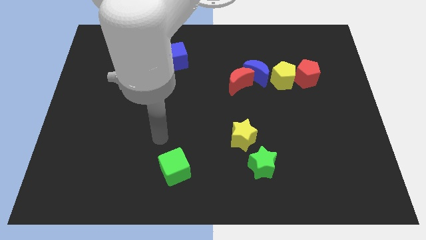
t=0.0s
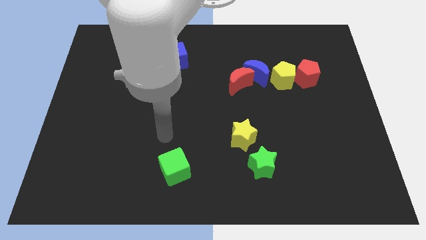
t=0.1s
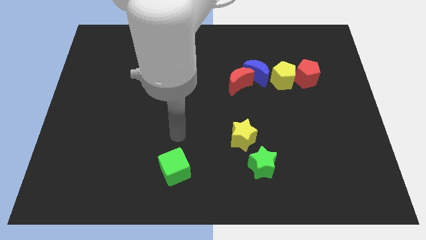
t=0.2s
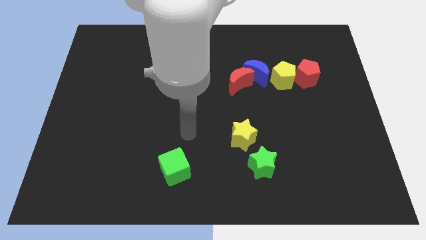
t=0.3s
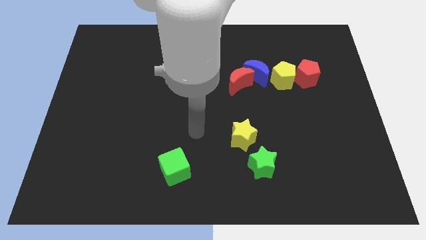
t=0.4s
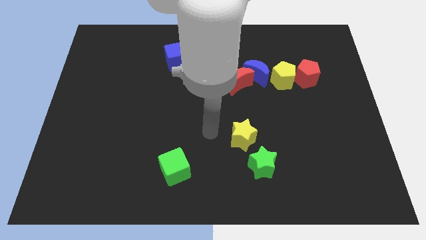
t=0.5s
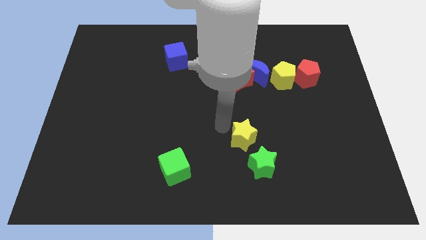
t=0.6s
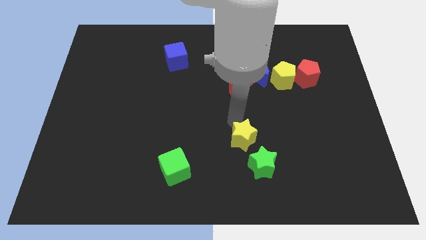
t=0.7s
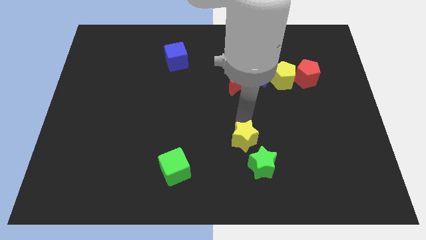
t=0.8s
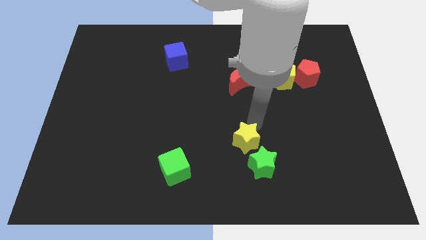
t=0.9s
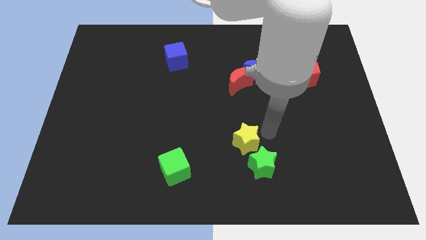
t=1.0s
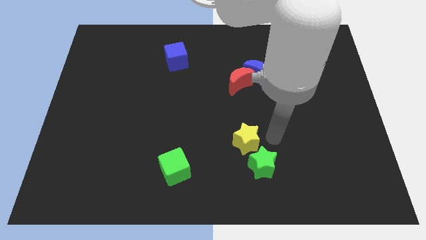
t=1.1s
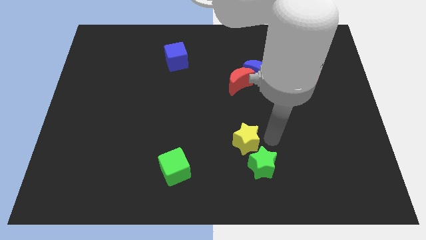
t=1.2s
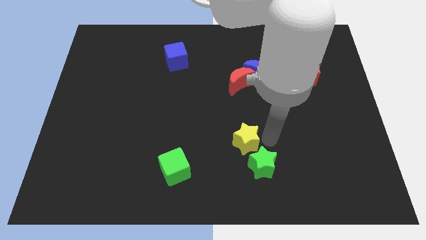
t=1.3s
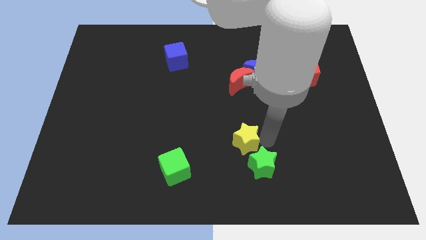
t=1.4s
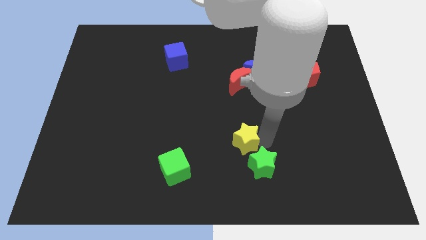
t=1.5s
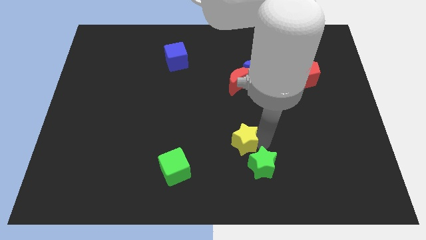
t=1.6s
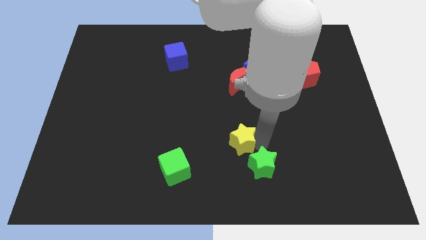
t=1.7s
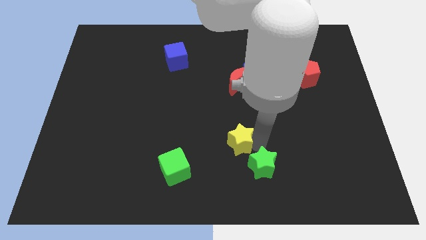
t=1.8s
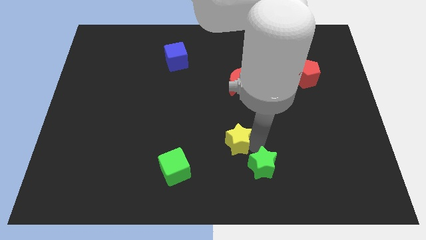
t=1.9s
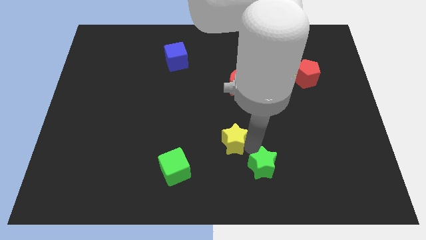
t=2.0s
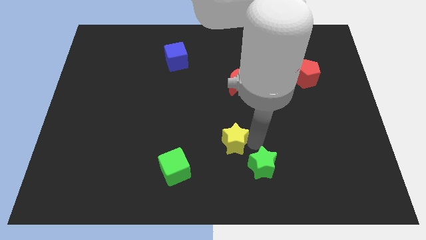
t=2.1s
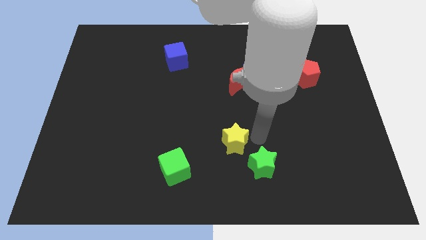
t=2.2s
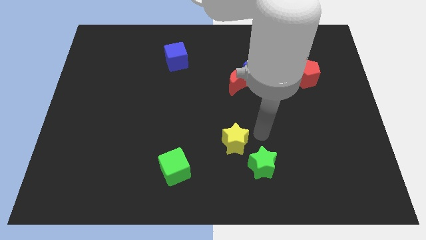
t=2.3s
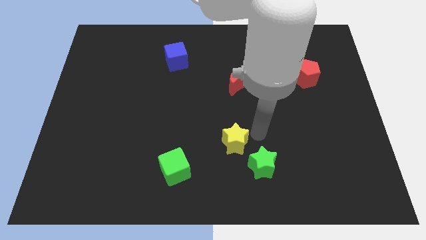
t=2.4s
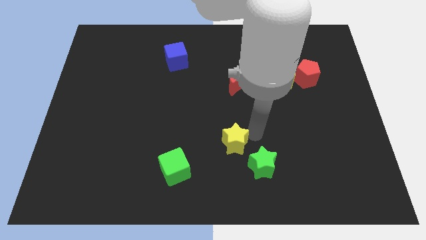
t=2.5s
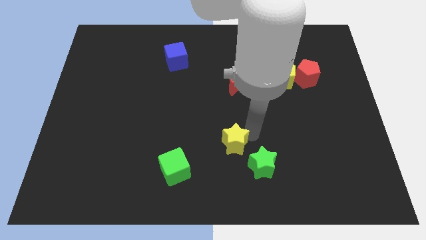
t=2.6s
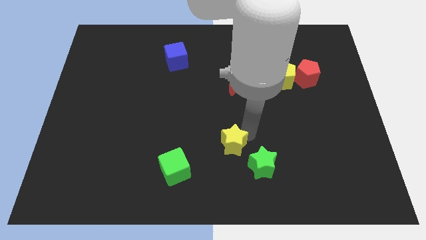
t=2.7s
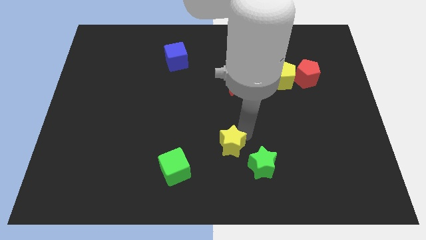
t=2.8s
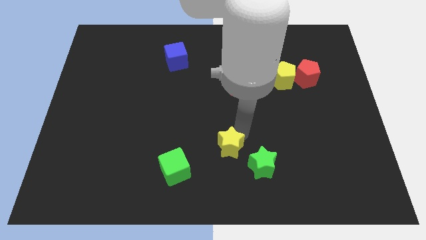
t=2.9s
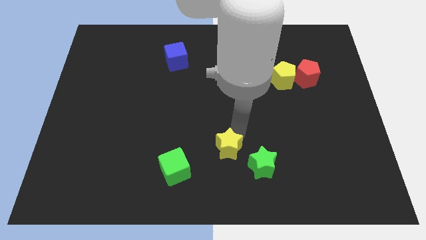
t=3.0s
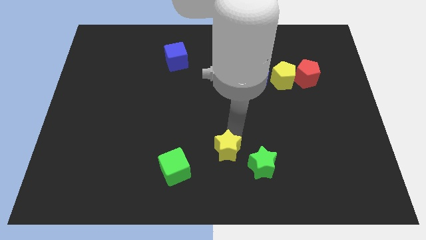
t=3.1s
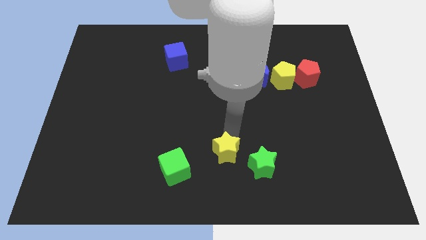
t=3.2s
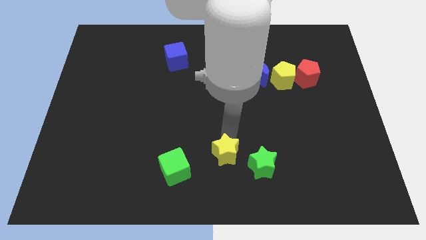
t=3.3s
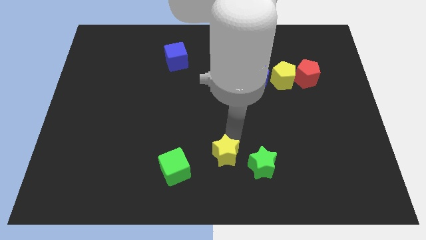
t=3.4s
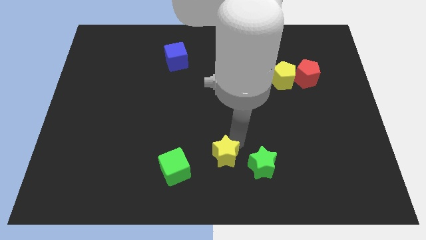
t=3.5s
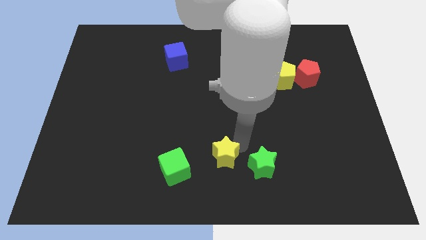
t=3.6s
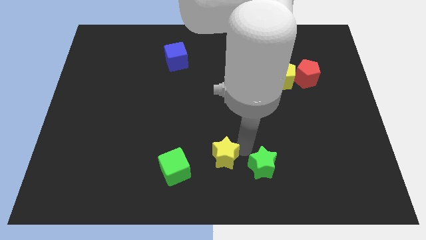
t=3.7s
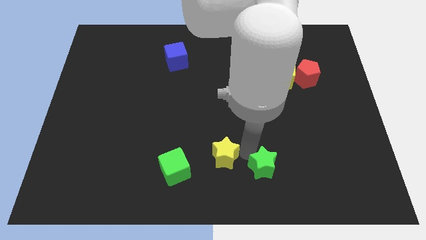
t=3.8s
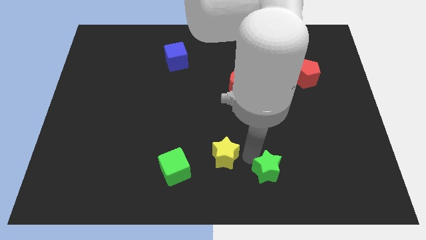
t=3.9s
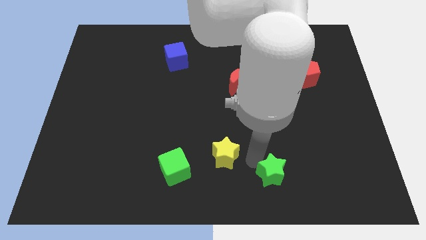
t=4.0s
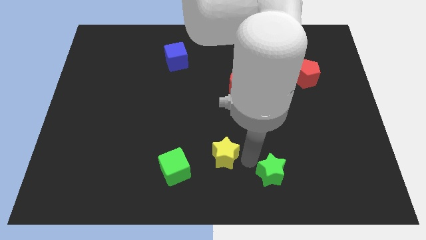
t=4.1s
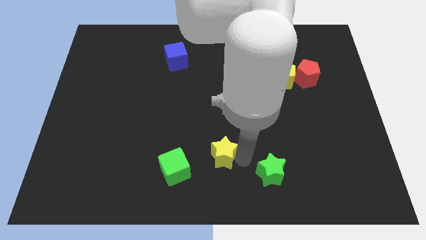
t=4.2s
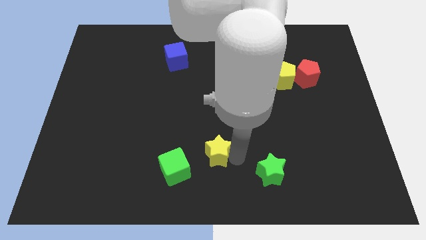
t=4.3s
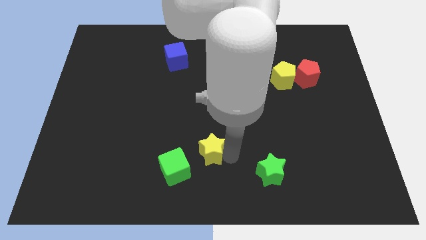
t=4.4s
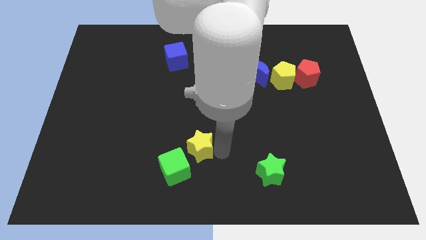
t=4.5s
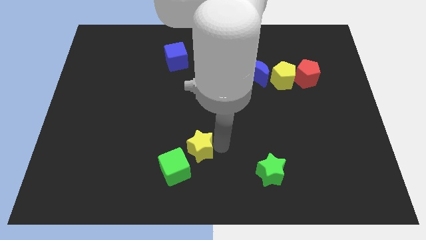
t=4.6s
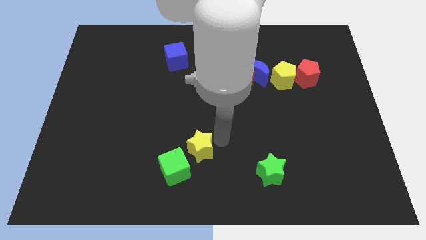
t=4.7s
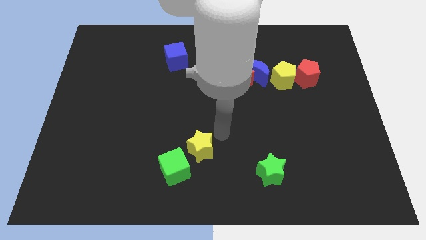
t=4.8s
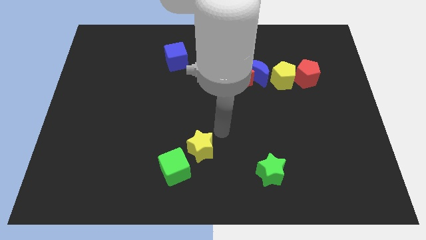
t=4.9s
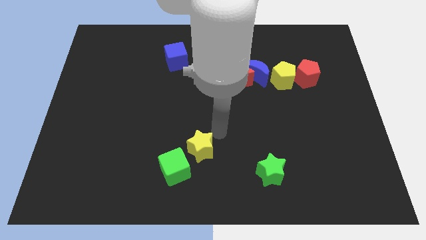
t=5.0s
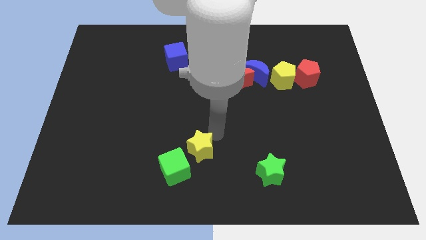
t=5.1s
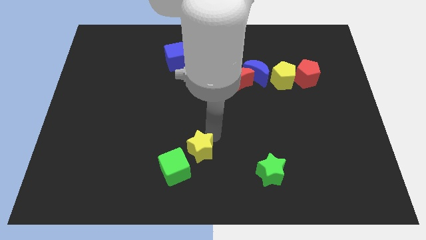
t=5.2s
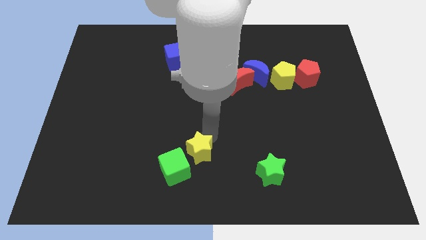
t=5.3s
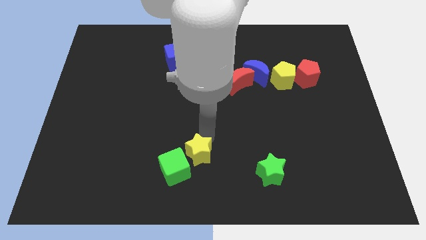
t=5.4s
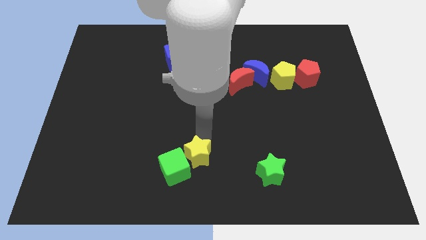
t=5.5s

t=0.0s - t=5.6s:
put the yellow star to the green cube

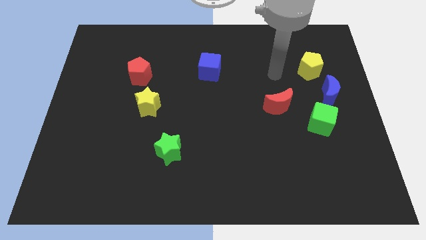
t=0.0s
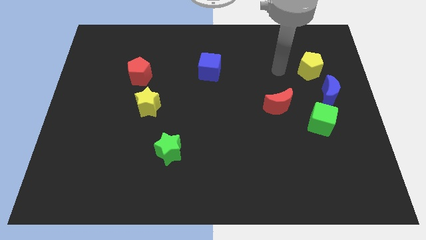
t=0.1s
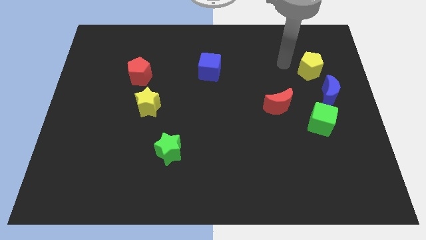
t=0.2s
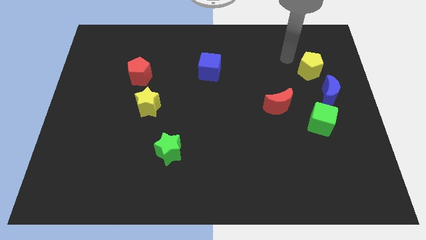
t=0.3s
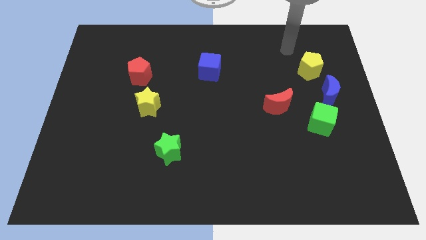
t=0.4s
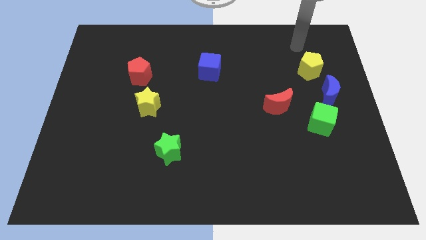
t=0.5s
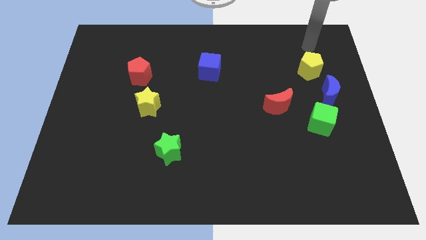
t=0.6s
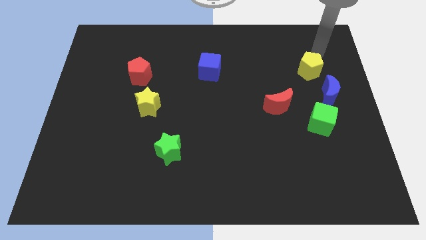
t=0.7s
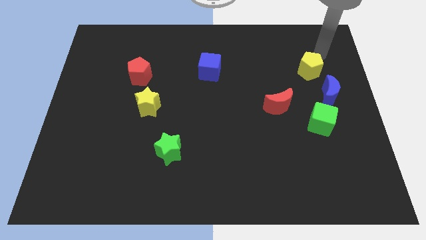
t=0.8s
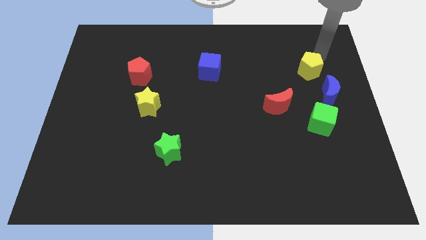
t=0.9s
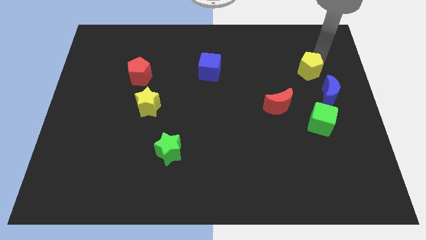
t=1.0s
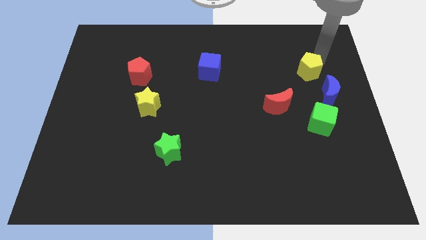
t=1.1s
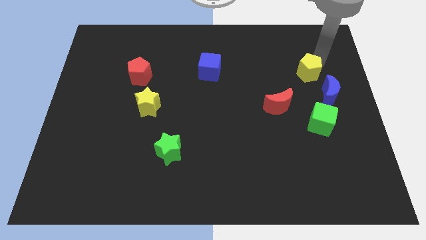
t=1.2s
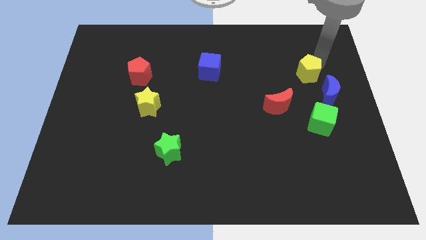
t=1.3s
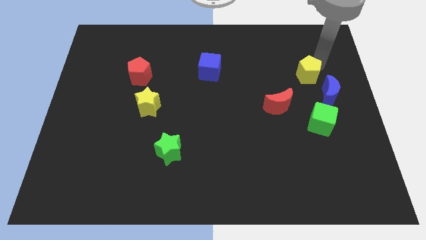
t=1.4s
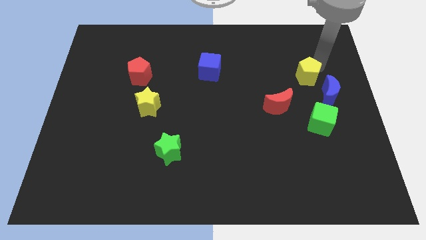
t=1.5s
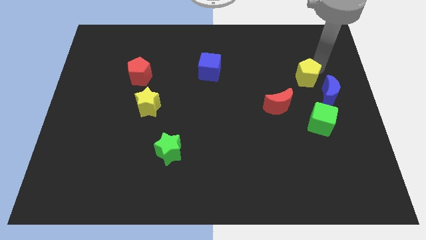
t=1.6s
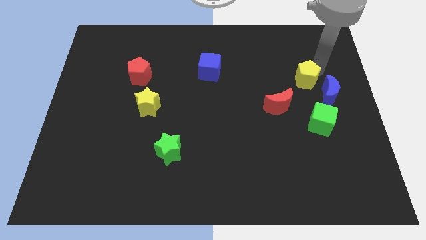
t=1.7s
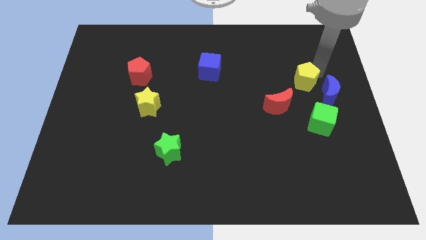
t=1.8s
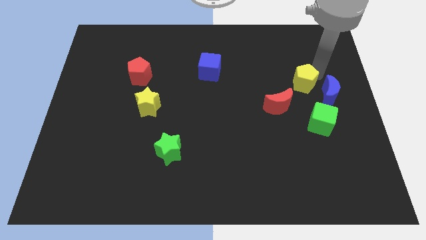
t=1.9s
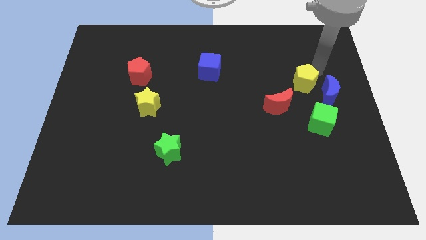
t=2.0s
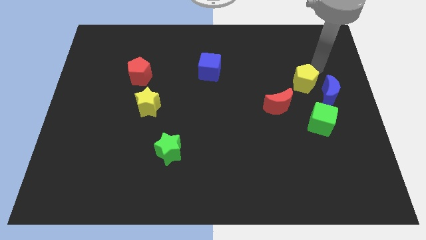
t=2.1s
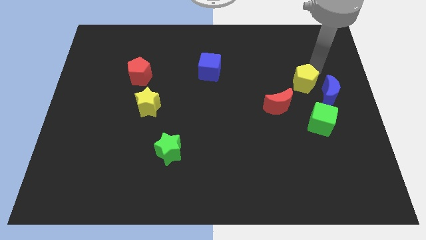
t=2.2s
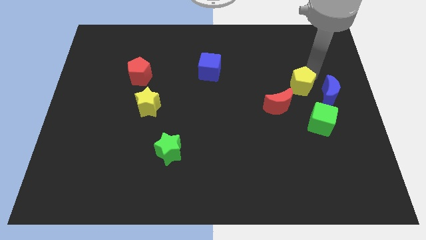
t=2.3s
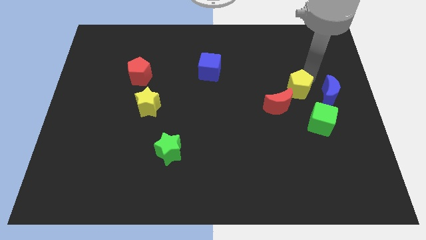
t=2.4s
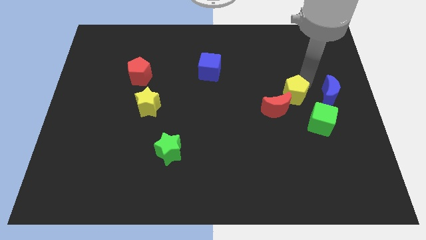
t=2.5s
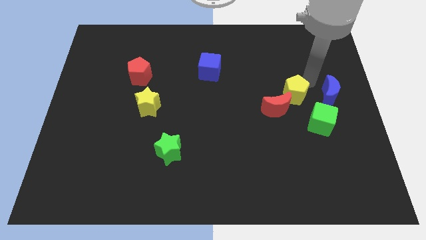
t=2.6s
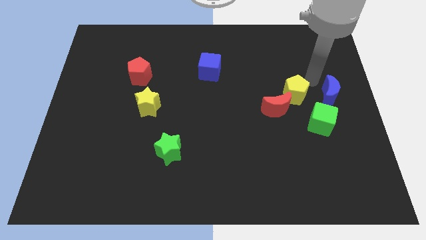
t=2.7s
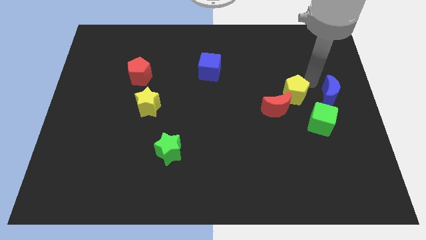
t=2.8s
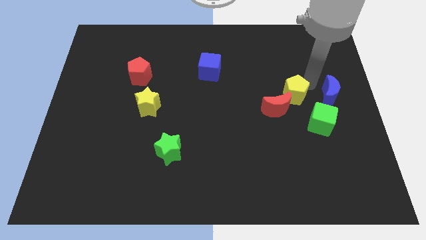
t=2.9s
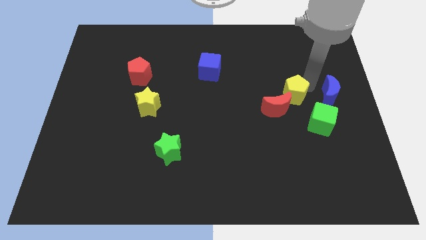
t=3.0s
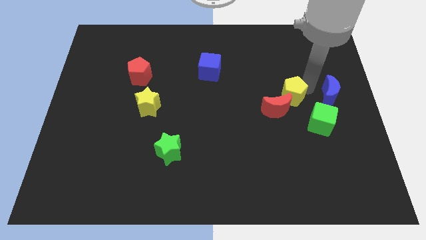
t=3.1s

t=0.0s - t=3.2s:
slide the yellow pentagon to the red moon
